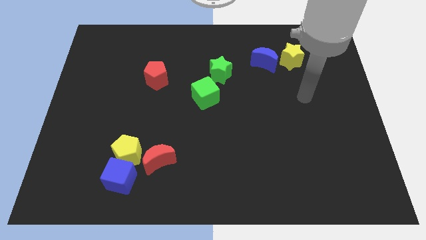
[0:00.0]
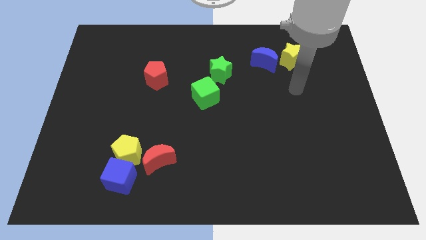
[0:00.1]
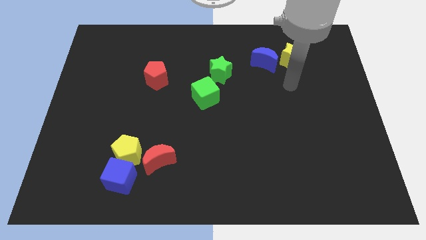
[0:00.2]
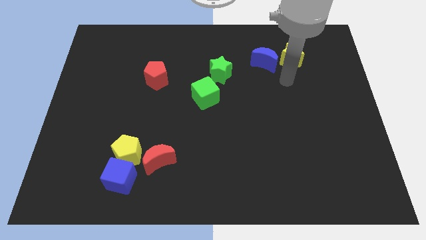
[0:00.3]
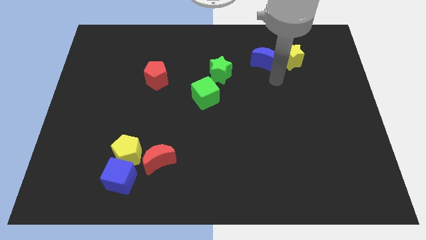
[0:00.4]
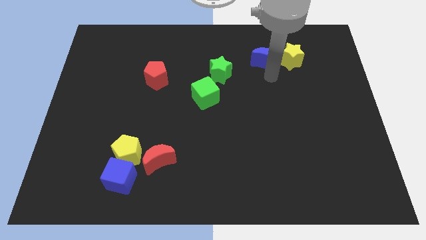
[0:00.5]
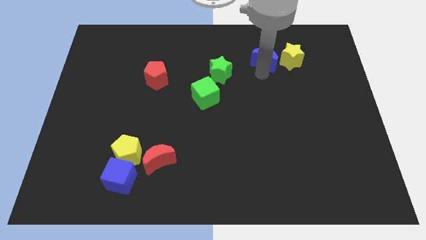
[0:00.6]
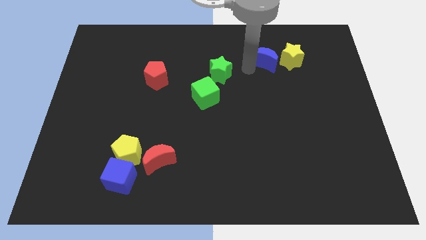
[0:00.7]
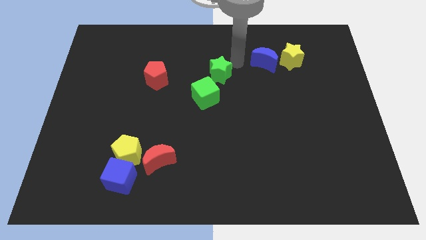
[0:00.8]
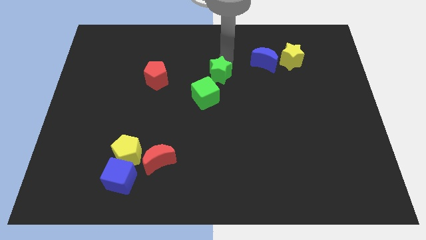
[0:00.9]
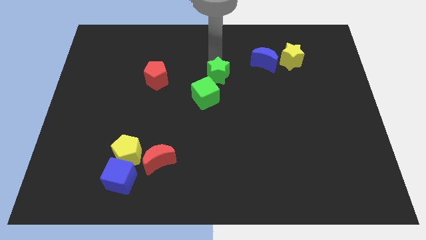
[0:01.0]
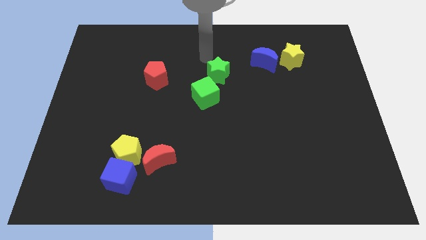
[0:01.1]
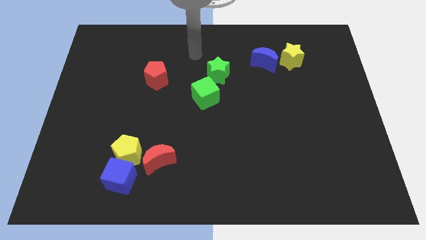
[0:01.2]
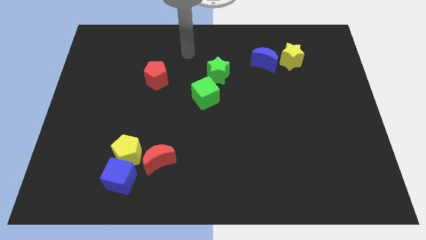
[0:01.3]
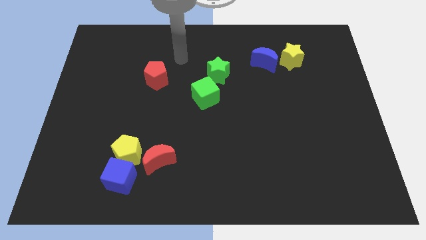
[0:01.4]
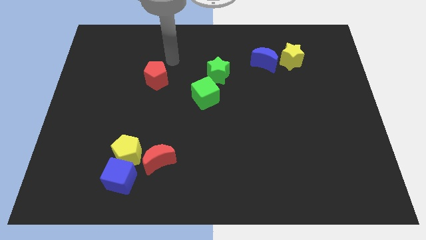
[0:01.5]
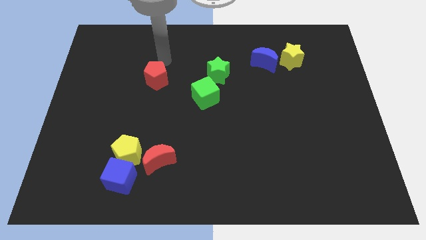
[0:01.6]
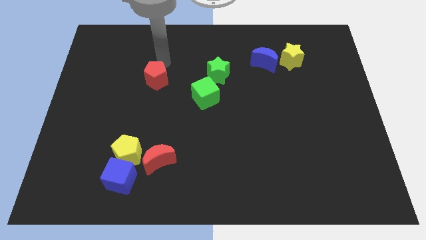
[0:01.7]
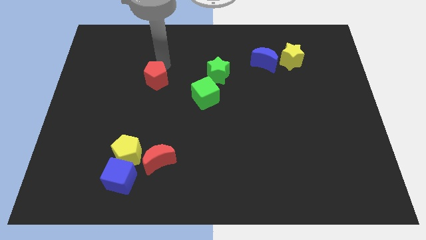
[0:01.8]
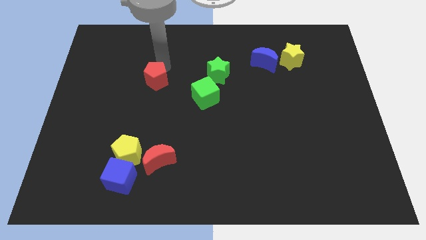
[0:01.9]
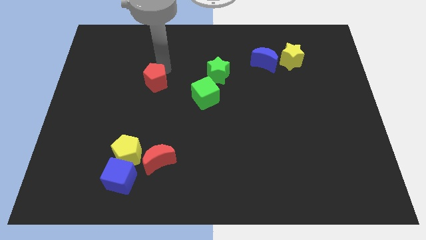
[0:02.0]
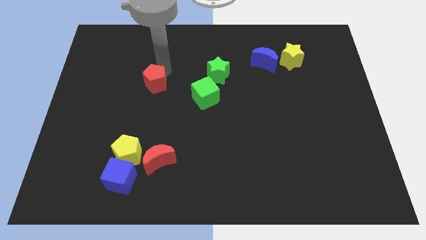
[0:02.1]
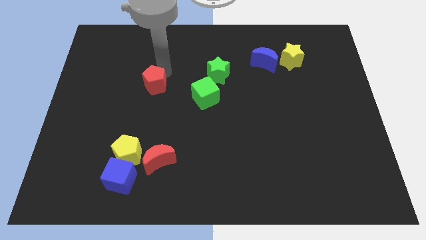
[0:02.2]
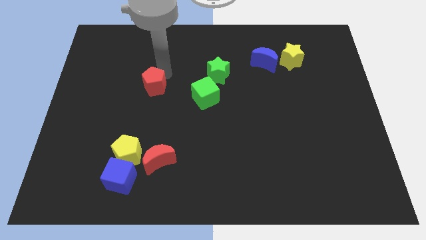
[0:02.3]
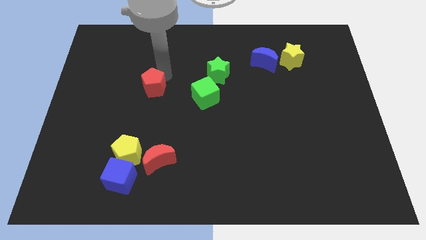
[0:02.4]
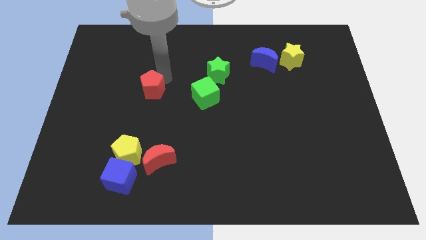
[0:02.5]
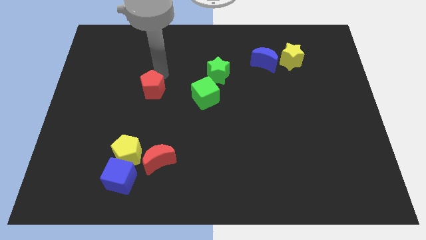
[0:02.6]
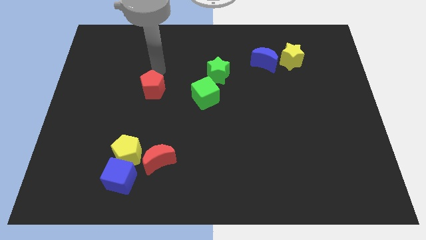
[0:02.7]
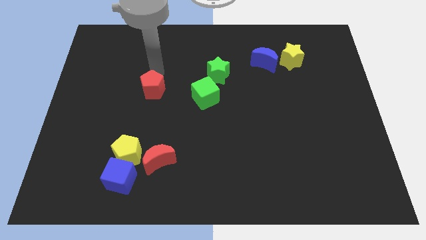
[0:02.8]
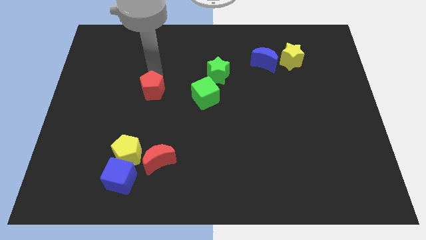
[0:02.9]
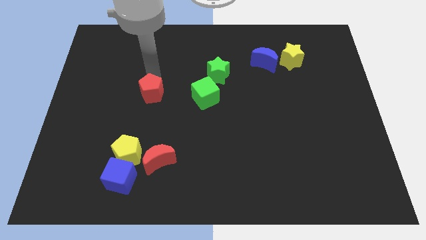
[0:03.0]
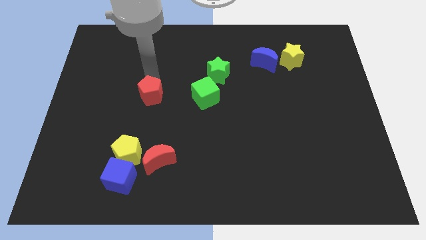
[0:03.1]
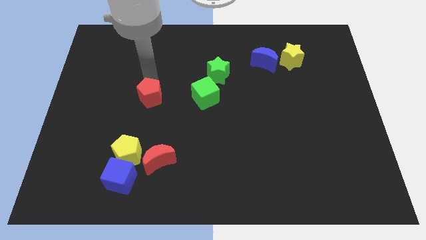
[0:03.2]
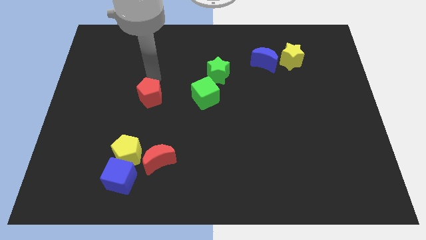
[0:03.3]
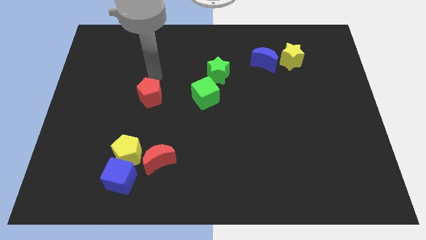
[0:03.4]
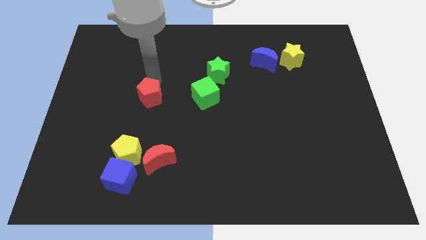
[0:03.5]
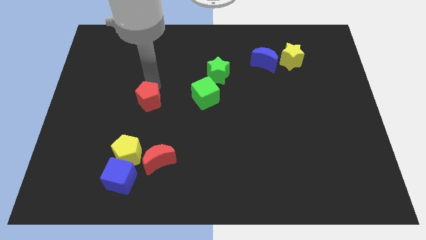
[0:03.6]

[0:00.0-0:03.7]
slightly push the red pentagon downwards

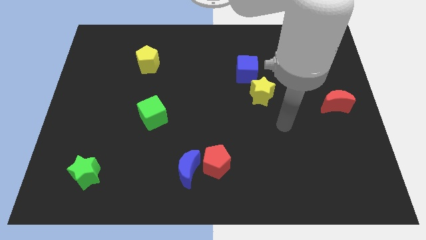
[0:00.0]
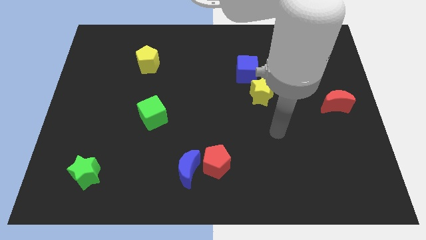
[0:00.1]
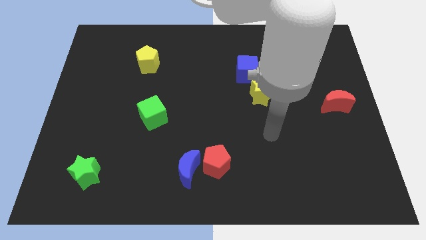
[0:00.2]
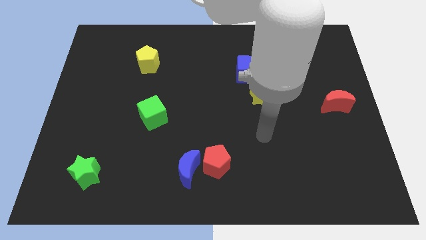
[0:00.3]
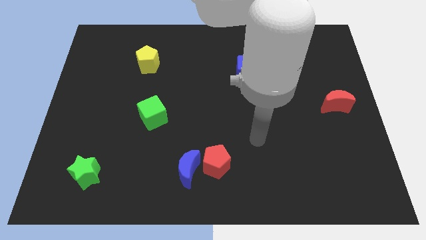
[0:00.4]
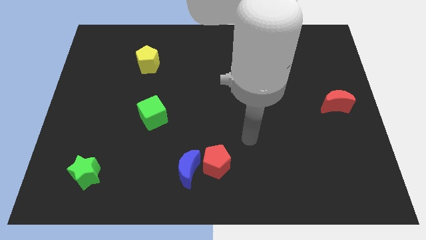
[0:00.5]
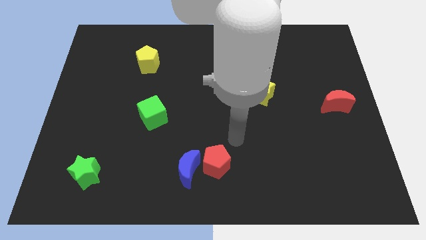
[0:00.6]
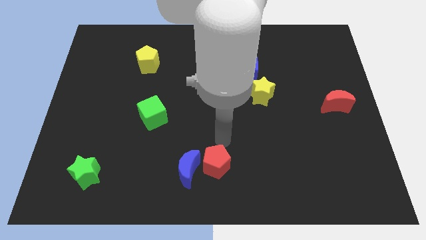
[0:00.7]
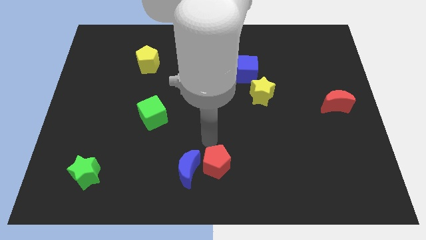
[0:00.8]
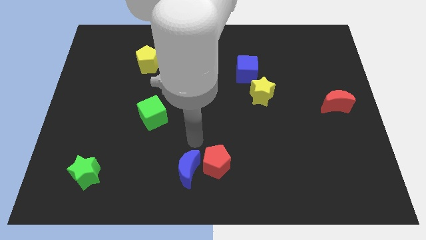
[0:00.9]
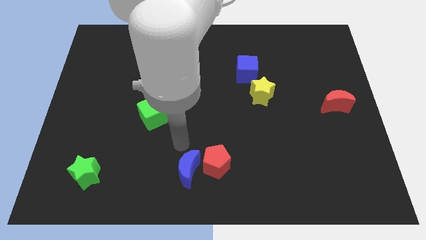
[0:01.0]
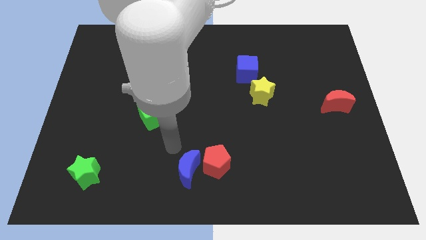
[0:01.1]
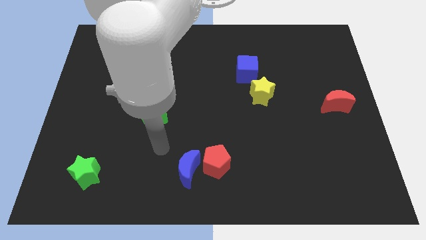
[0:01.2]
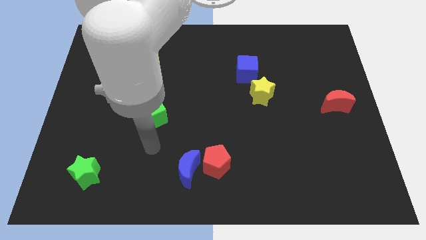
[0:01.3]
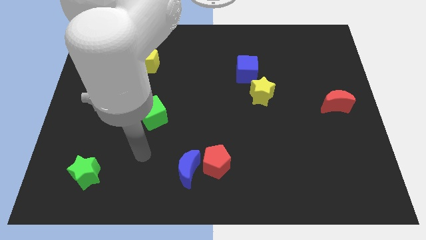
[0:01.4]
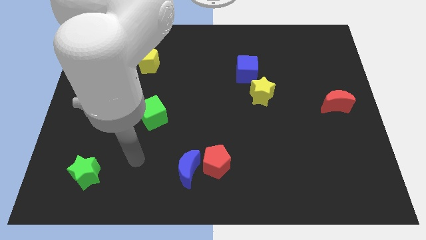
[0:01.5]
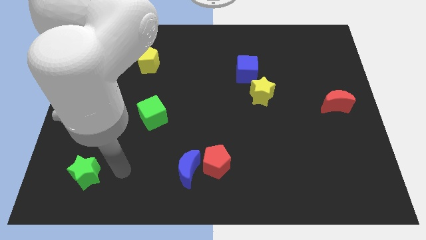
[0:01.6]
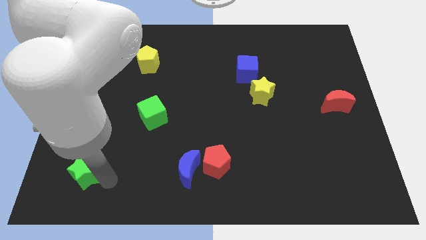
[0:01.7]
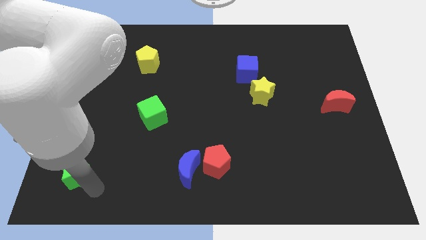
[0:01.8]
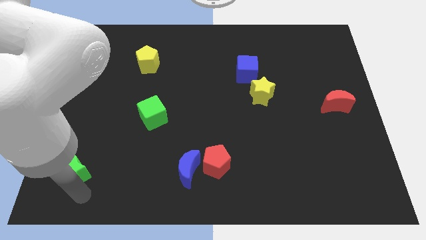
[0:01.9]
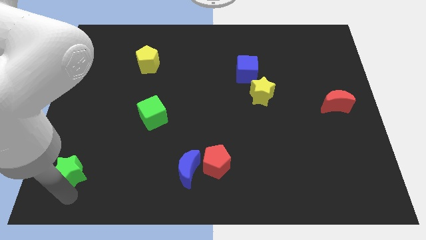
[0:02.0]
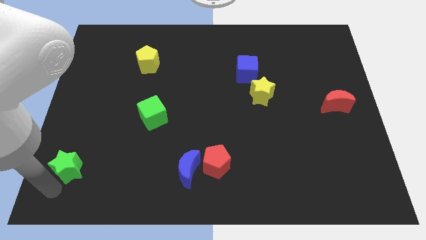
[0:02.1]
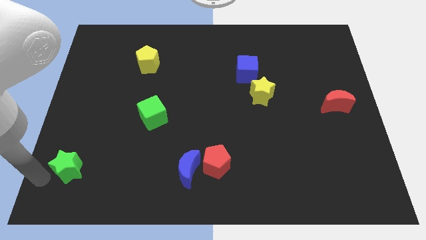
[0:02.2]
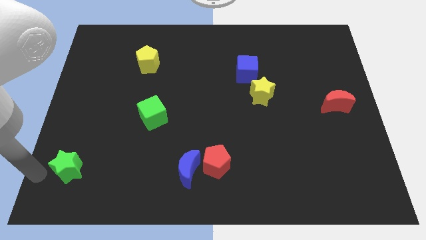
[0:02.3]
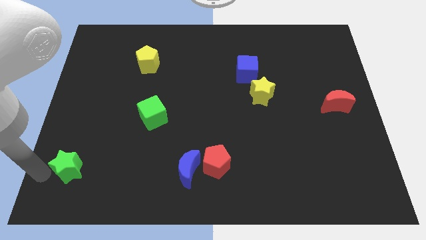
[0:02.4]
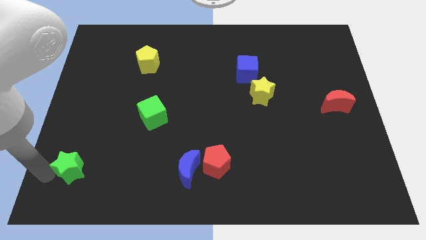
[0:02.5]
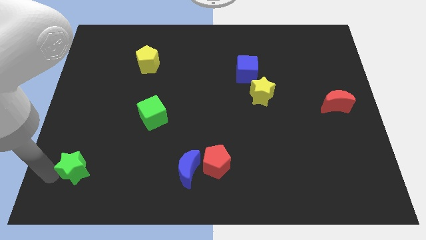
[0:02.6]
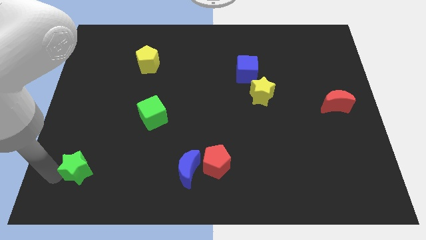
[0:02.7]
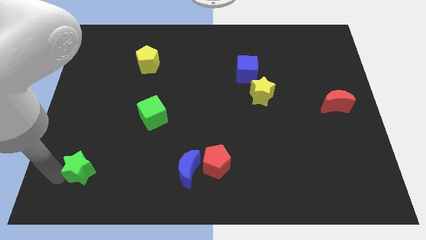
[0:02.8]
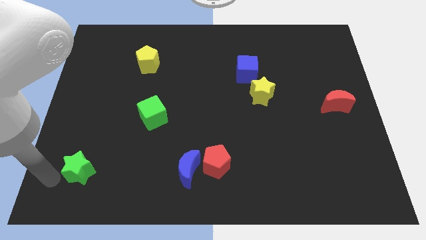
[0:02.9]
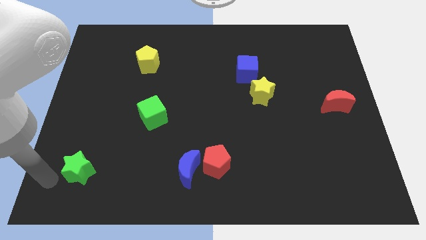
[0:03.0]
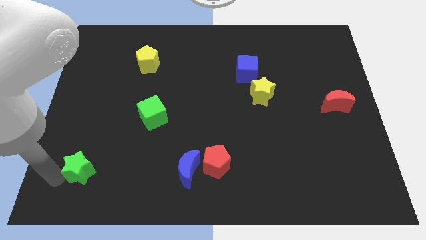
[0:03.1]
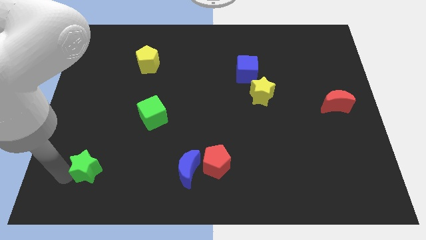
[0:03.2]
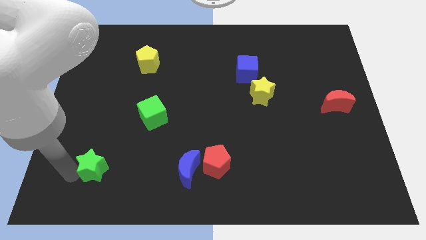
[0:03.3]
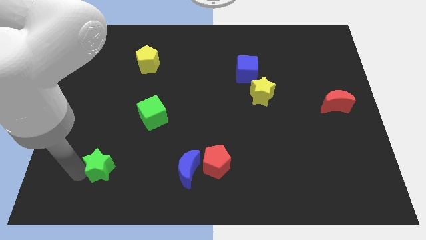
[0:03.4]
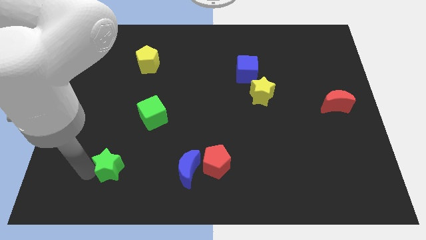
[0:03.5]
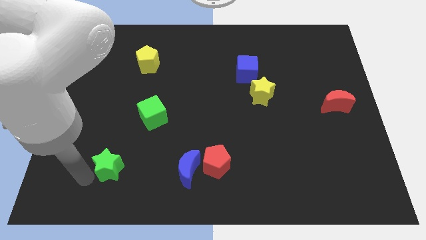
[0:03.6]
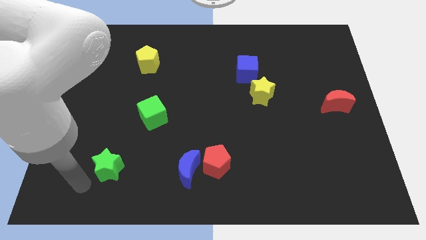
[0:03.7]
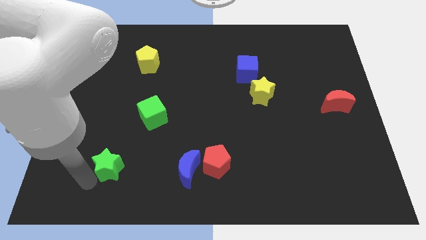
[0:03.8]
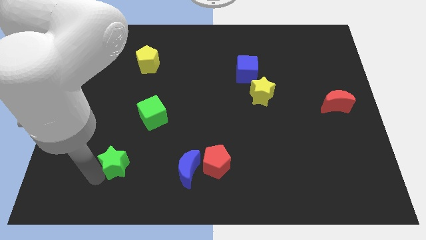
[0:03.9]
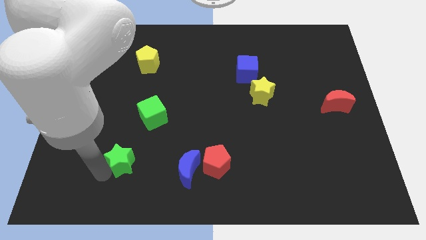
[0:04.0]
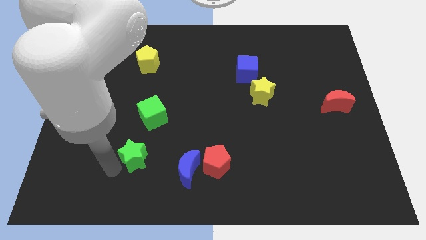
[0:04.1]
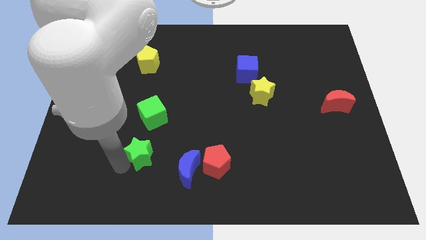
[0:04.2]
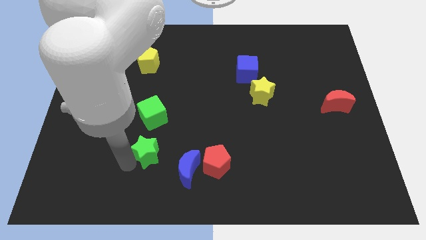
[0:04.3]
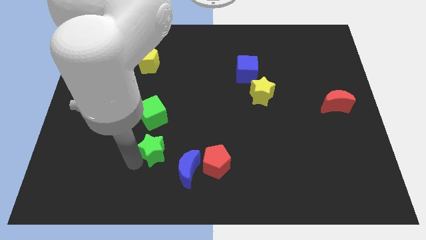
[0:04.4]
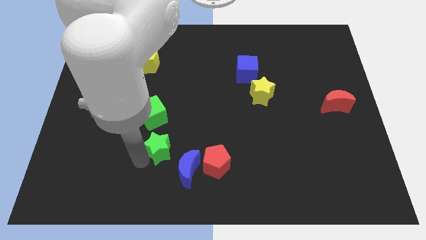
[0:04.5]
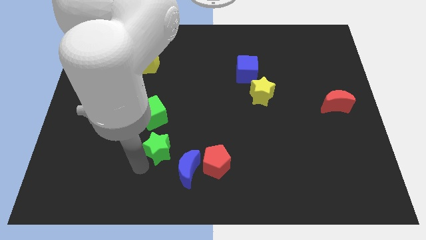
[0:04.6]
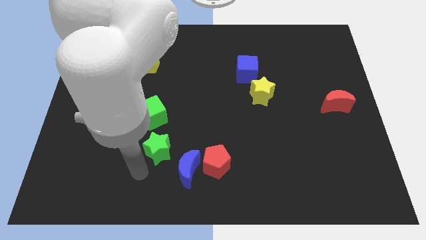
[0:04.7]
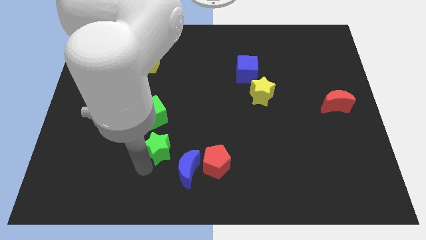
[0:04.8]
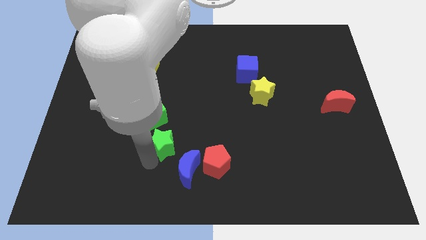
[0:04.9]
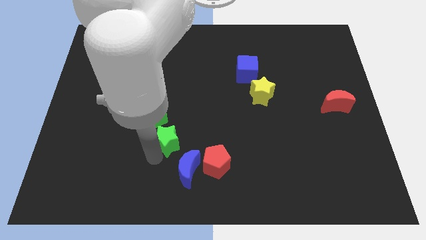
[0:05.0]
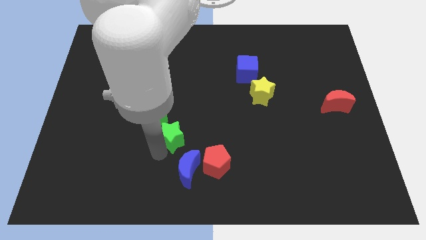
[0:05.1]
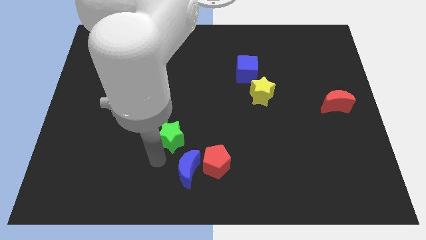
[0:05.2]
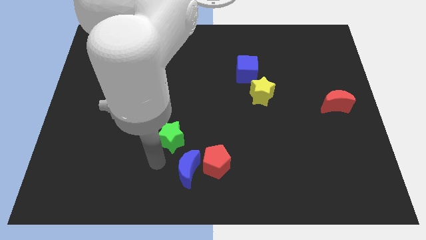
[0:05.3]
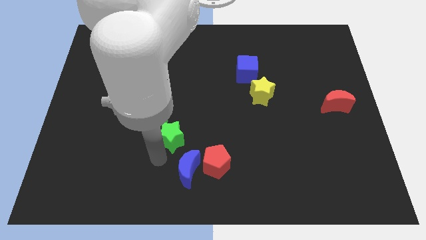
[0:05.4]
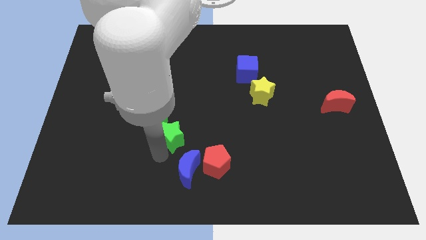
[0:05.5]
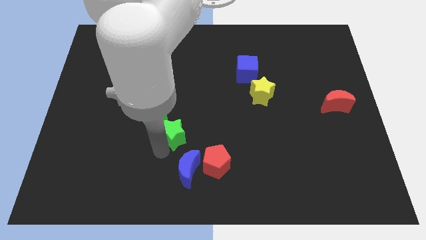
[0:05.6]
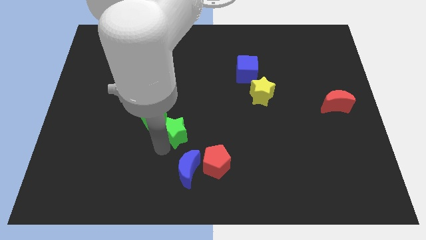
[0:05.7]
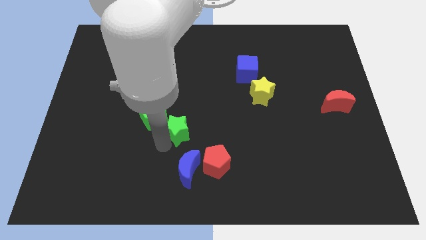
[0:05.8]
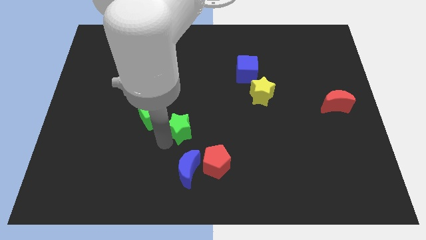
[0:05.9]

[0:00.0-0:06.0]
push the green star upwards and right diagonally
